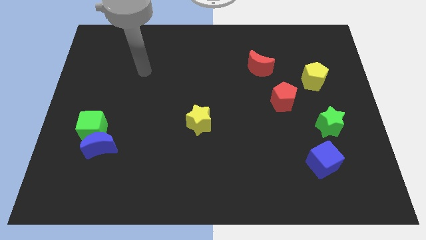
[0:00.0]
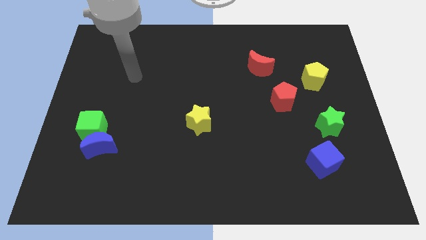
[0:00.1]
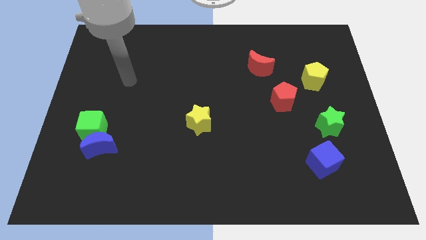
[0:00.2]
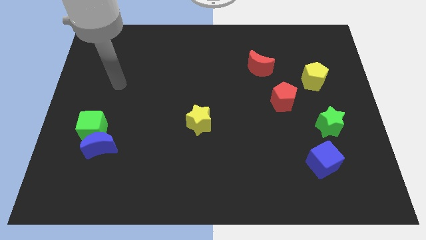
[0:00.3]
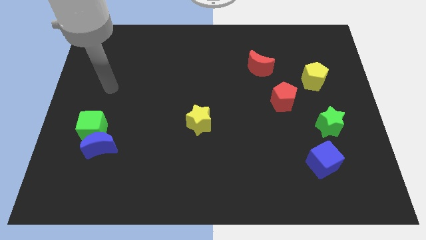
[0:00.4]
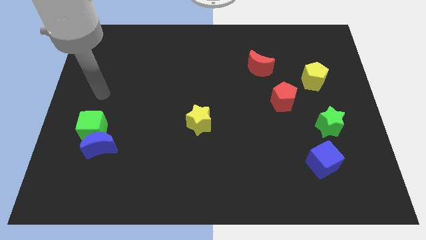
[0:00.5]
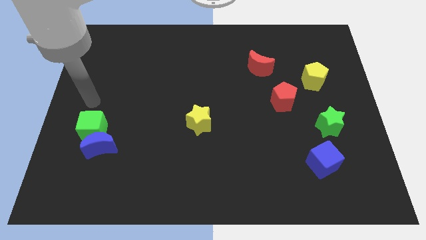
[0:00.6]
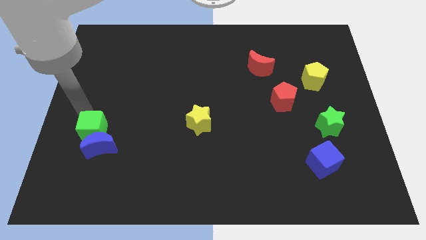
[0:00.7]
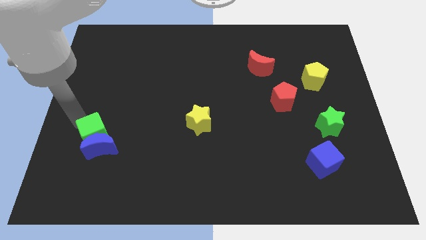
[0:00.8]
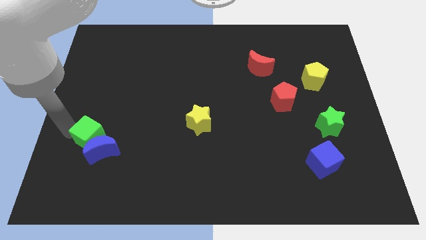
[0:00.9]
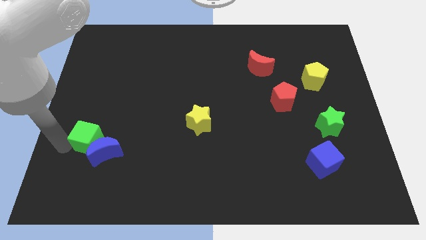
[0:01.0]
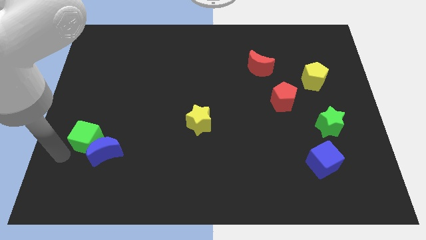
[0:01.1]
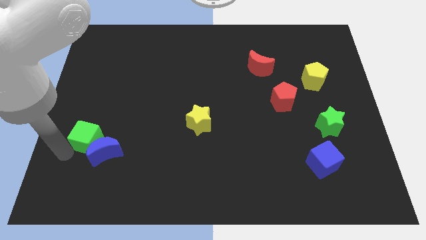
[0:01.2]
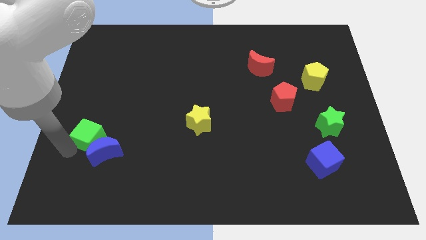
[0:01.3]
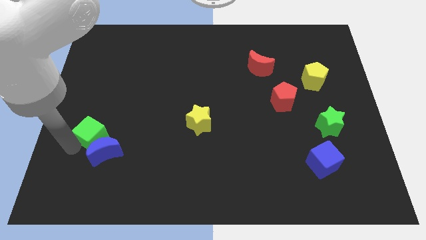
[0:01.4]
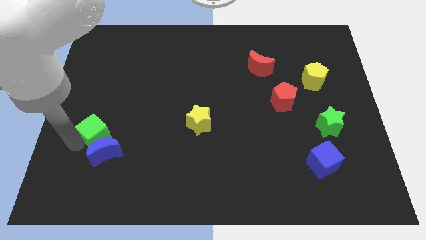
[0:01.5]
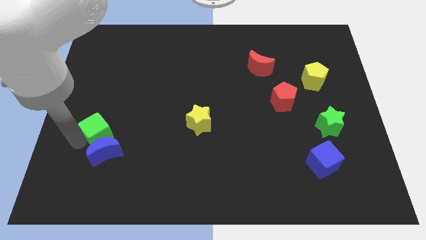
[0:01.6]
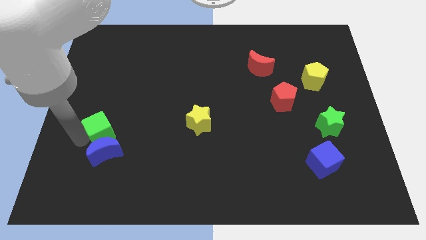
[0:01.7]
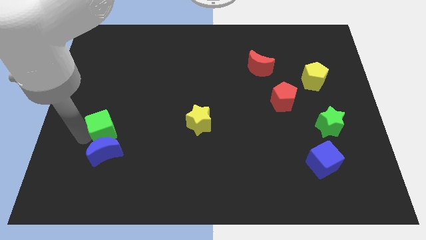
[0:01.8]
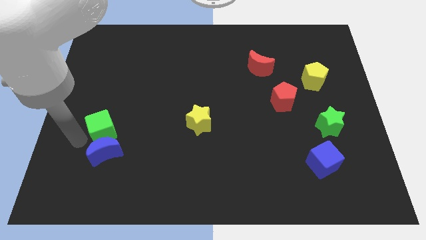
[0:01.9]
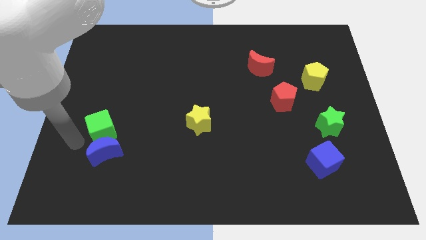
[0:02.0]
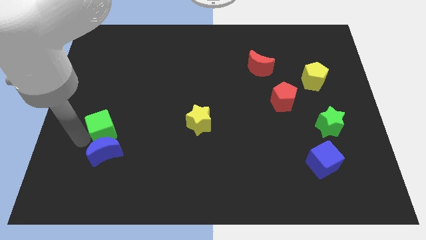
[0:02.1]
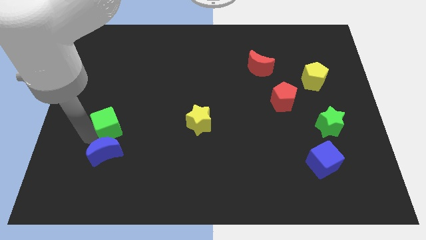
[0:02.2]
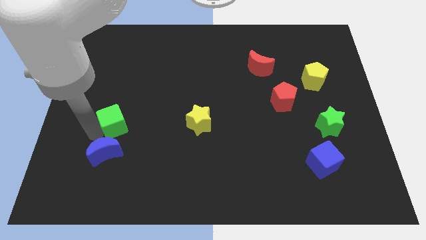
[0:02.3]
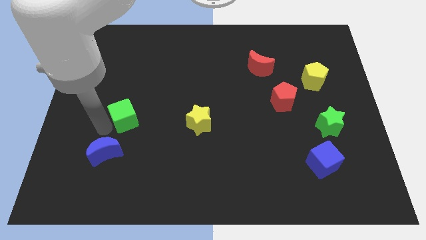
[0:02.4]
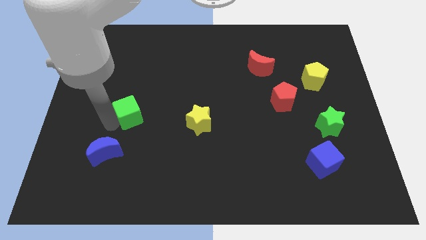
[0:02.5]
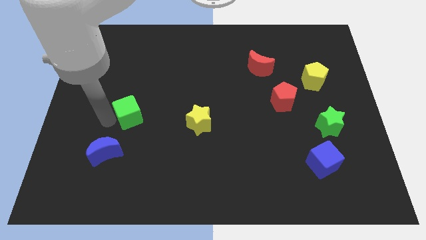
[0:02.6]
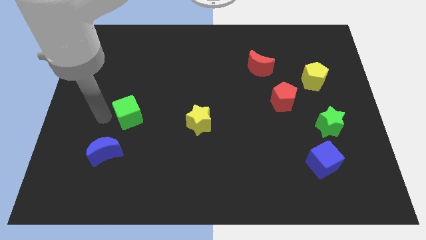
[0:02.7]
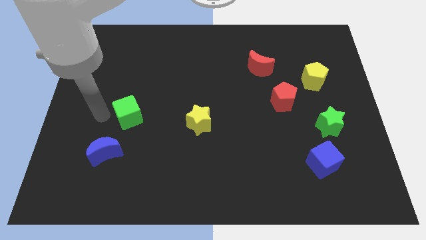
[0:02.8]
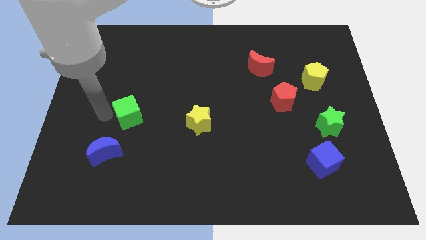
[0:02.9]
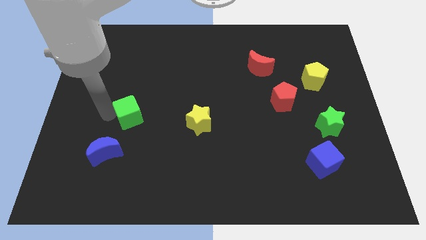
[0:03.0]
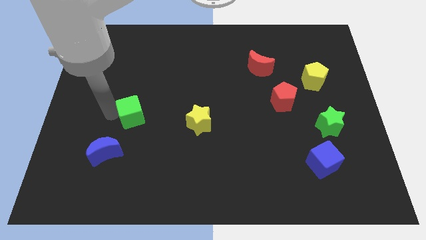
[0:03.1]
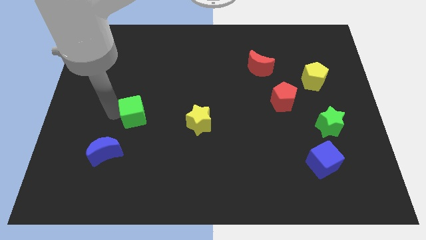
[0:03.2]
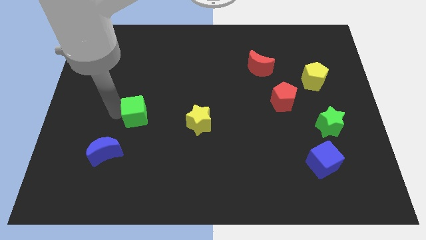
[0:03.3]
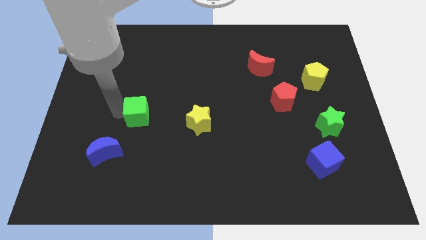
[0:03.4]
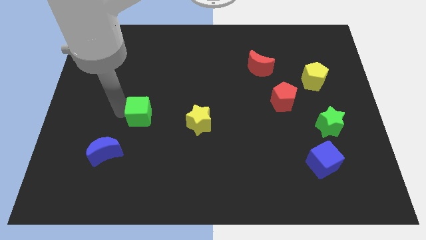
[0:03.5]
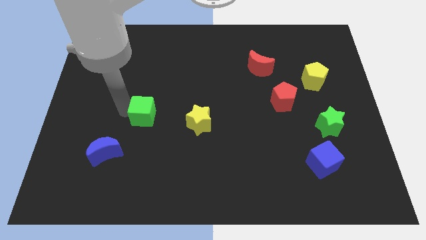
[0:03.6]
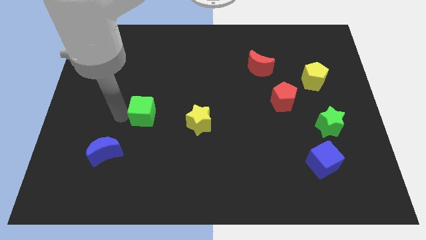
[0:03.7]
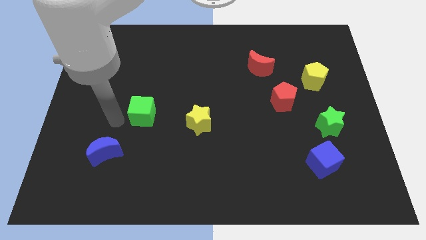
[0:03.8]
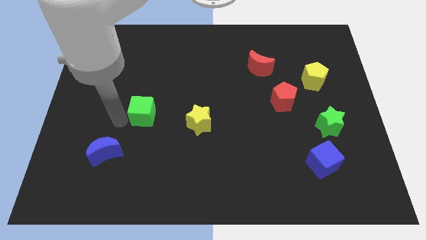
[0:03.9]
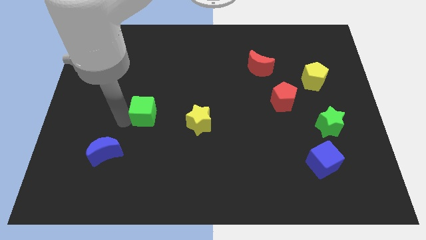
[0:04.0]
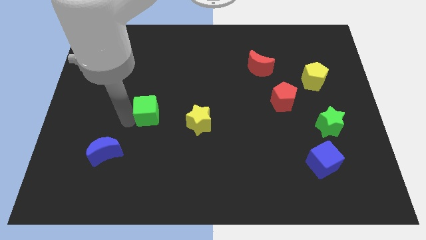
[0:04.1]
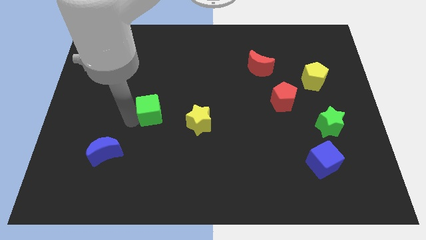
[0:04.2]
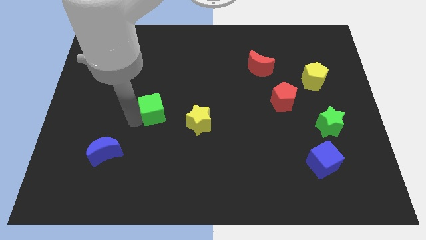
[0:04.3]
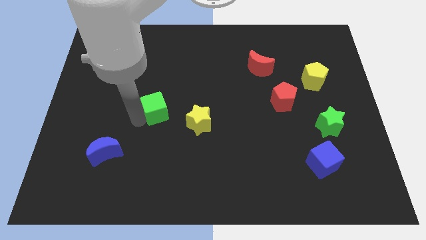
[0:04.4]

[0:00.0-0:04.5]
push the green cube to the top left of the yellow star

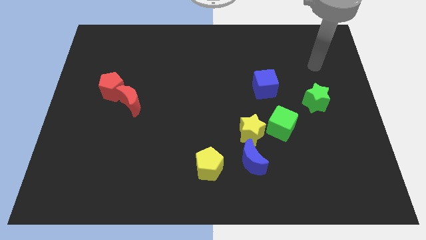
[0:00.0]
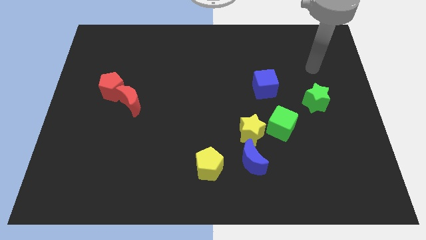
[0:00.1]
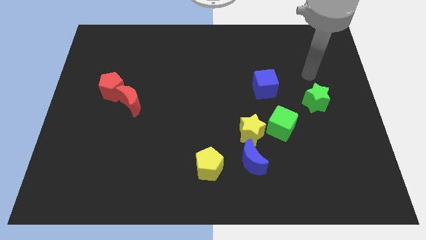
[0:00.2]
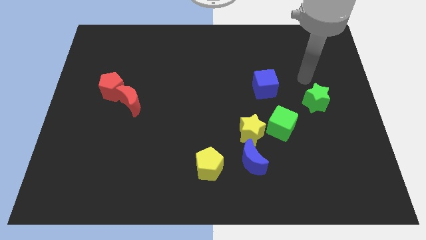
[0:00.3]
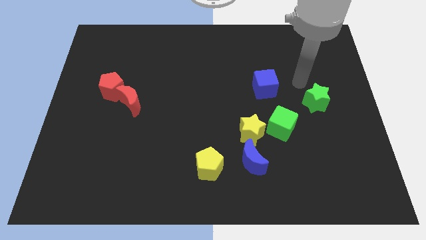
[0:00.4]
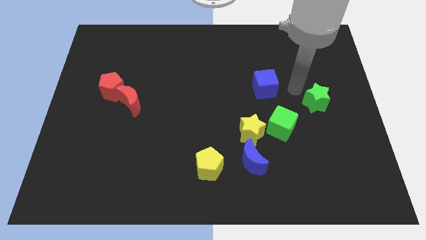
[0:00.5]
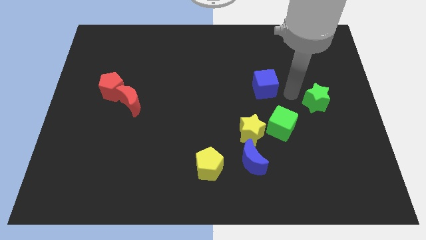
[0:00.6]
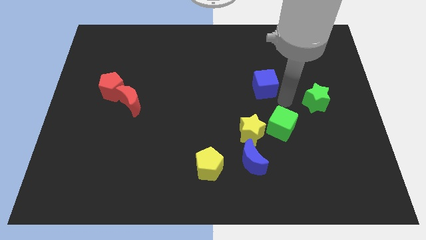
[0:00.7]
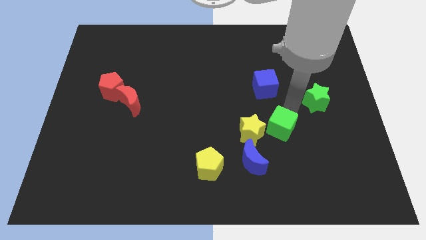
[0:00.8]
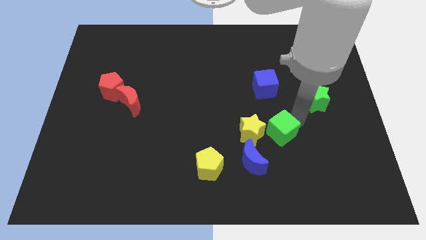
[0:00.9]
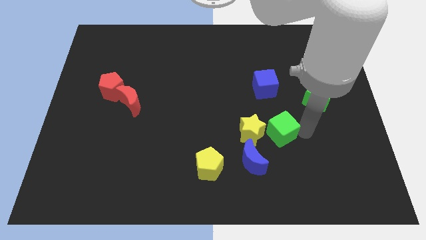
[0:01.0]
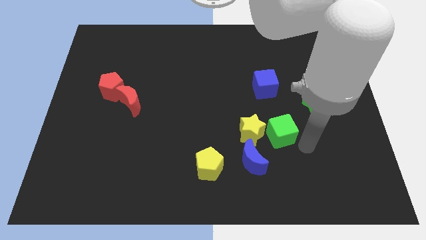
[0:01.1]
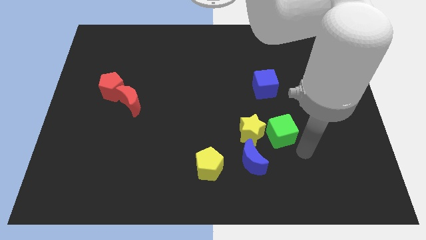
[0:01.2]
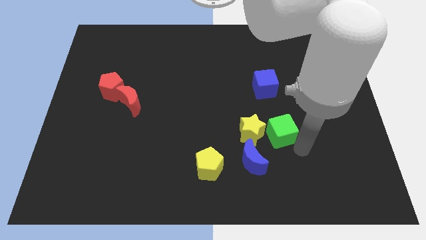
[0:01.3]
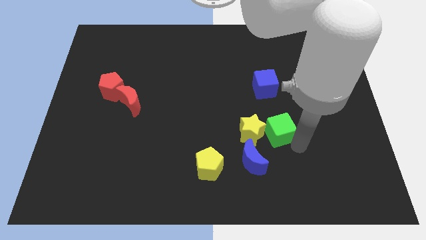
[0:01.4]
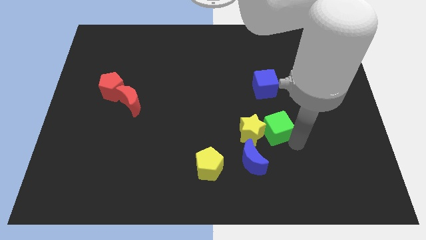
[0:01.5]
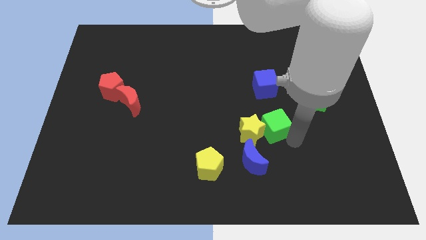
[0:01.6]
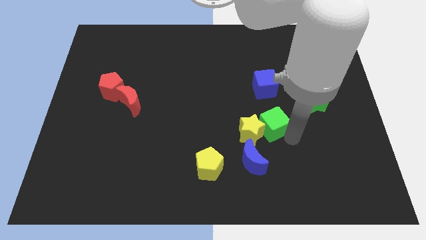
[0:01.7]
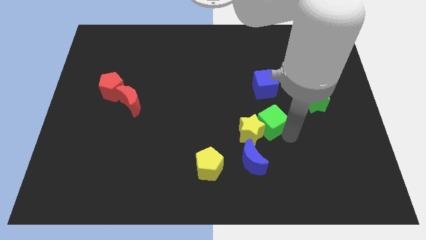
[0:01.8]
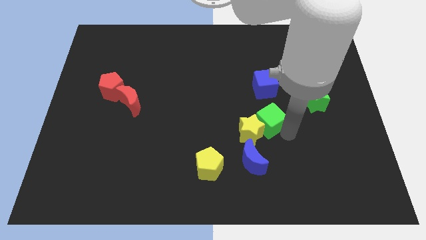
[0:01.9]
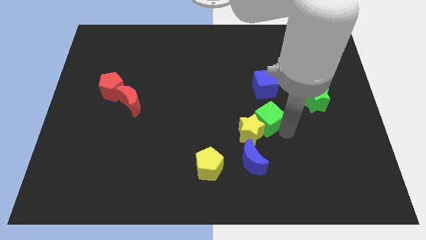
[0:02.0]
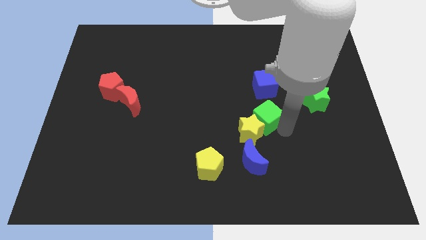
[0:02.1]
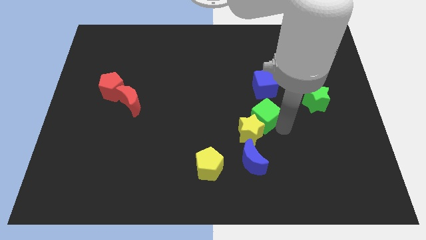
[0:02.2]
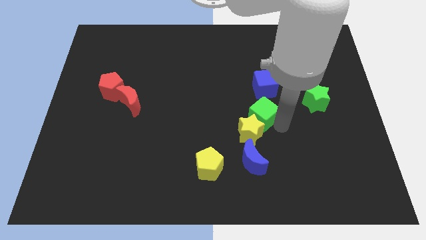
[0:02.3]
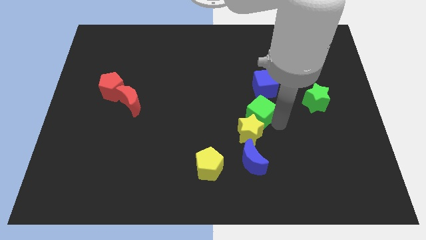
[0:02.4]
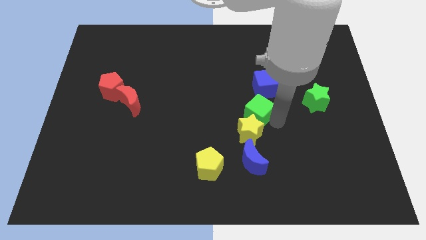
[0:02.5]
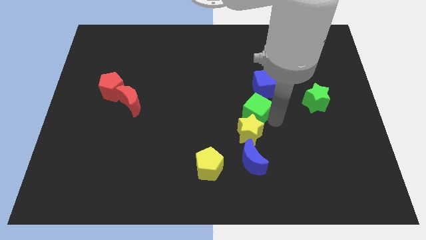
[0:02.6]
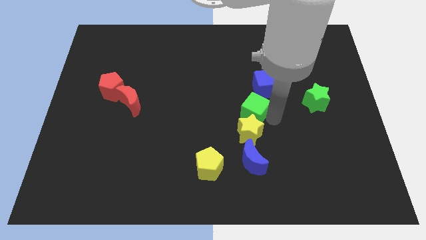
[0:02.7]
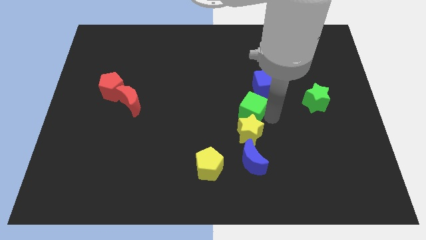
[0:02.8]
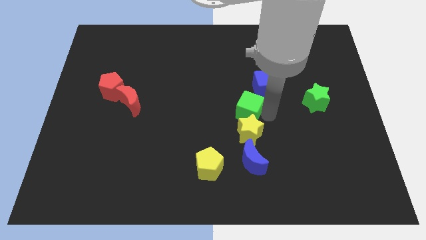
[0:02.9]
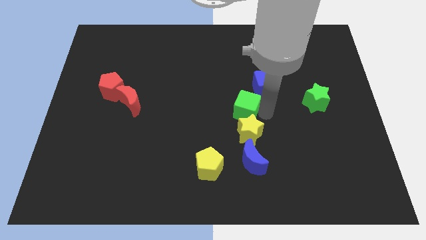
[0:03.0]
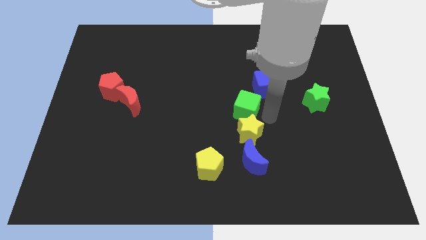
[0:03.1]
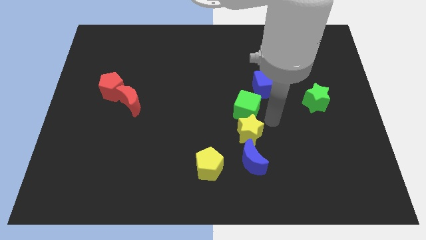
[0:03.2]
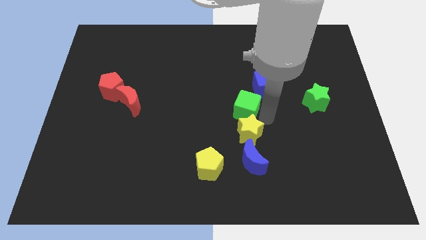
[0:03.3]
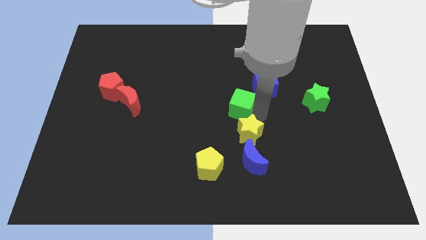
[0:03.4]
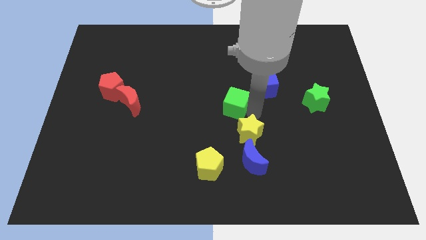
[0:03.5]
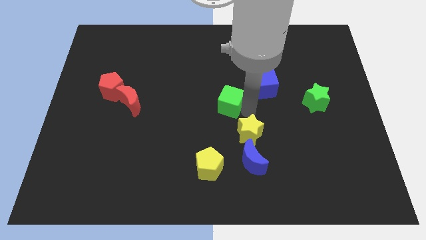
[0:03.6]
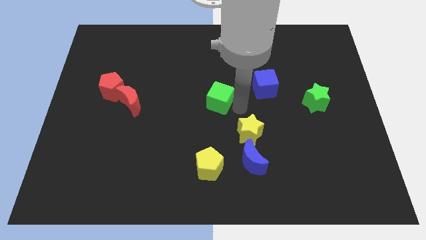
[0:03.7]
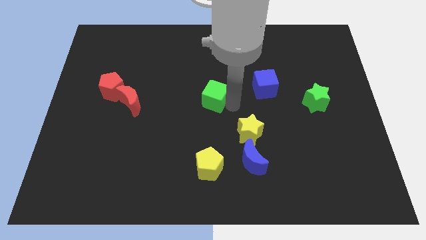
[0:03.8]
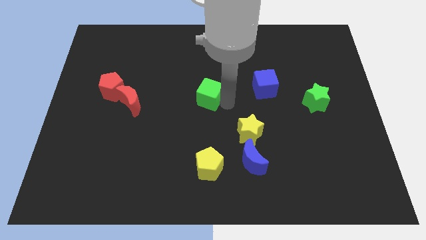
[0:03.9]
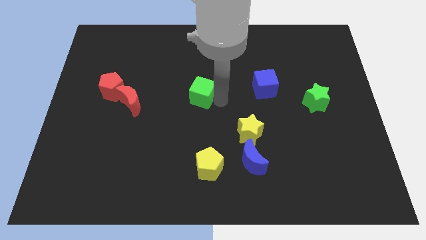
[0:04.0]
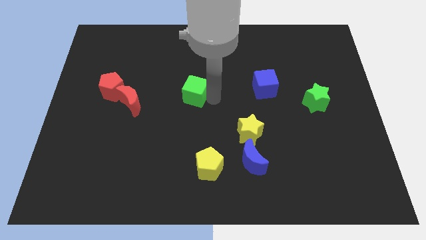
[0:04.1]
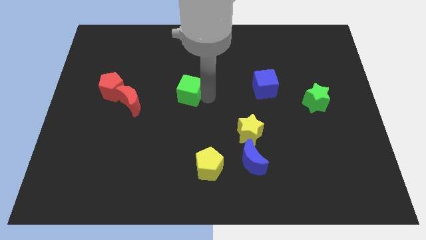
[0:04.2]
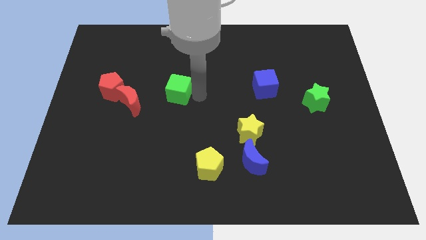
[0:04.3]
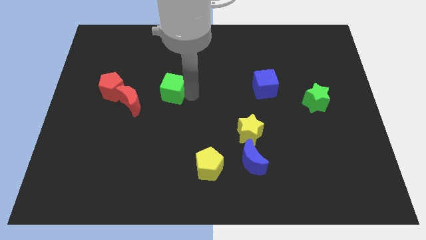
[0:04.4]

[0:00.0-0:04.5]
slide the green cube to the top right side of the red moon
